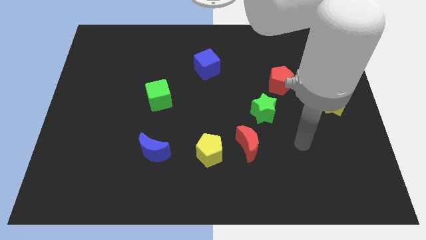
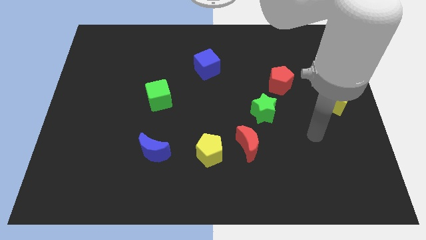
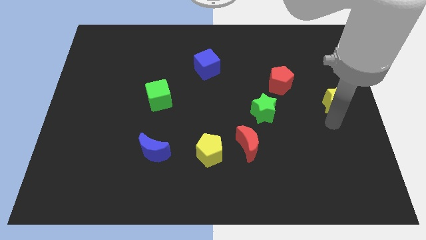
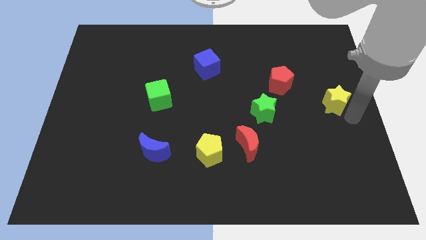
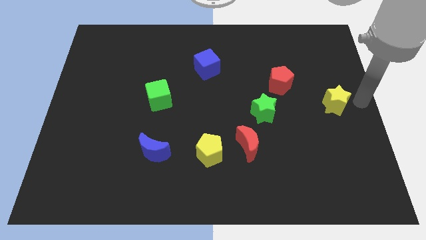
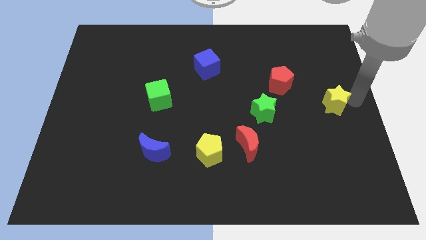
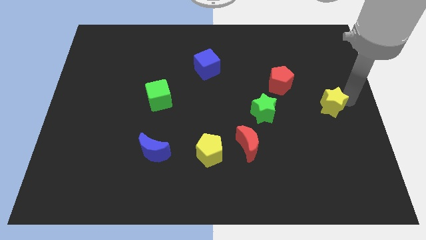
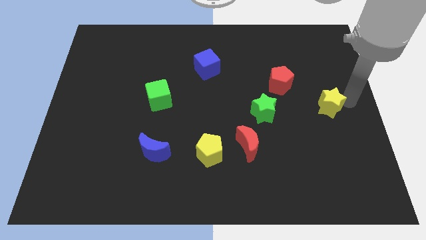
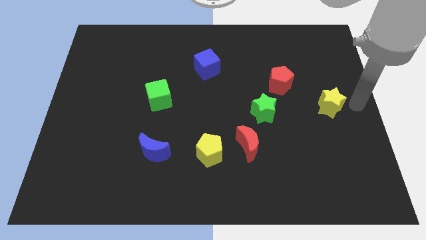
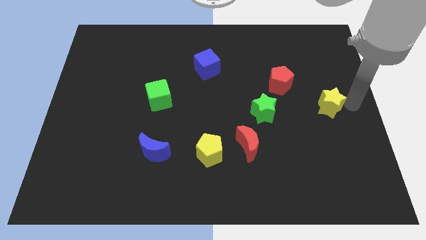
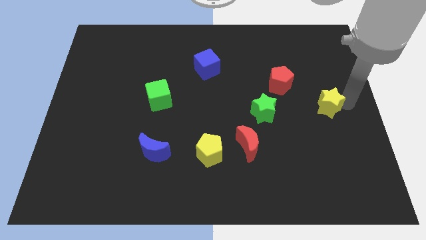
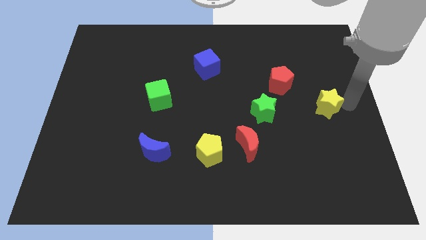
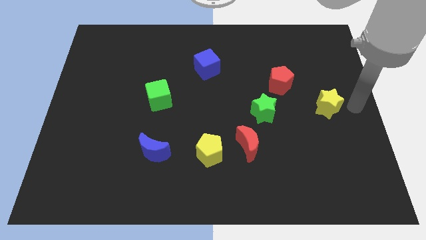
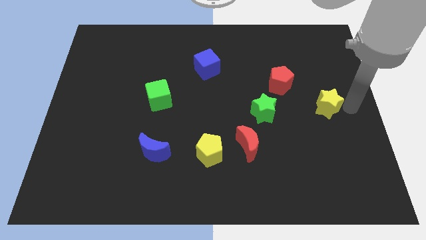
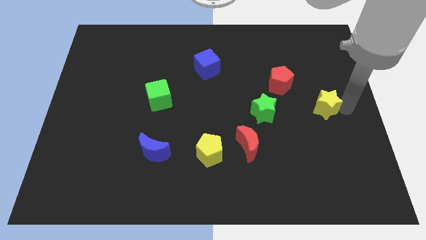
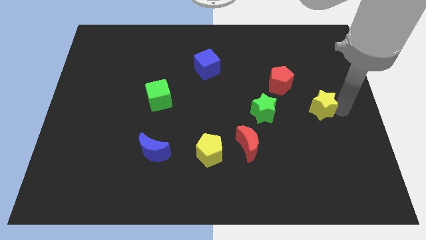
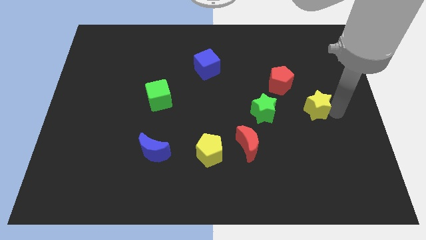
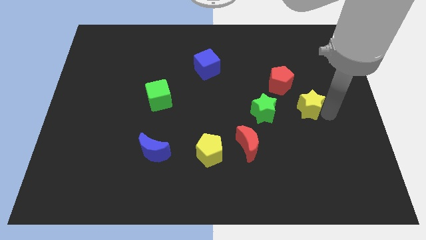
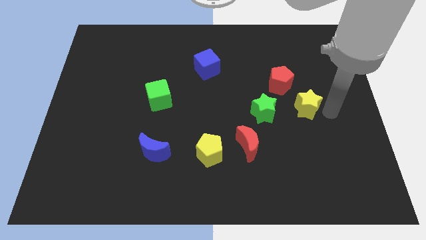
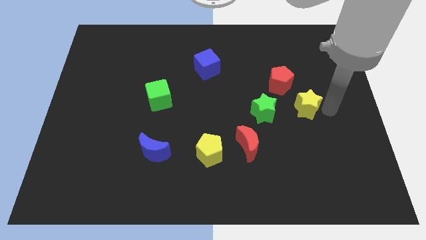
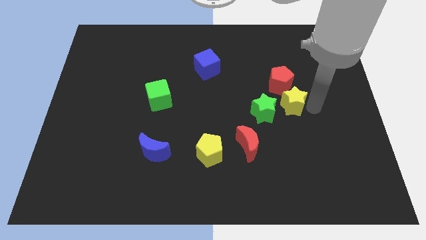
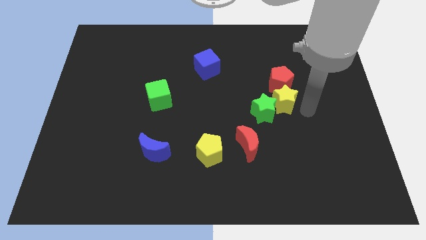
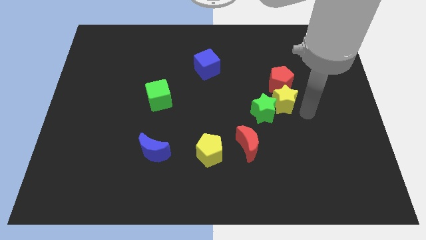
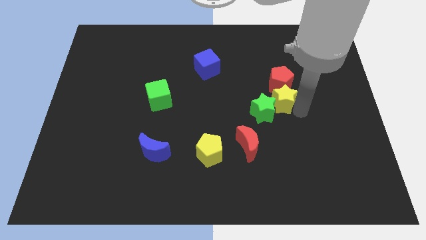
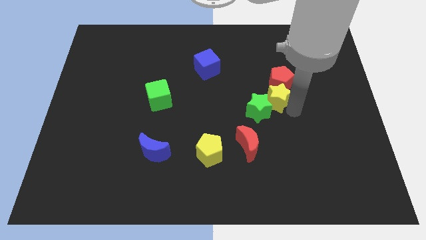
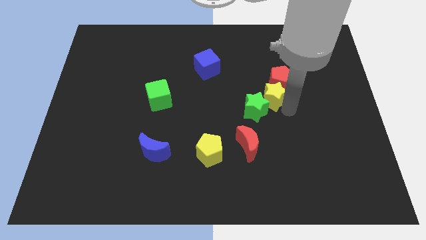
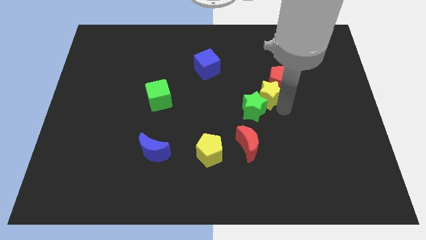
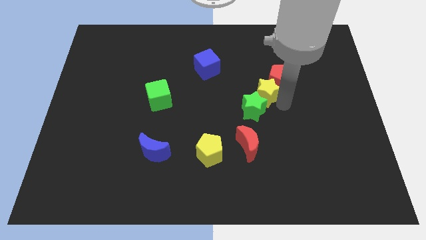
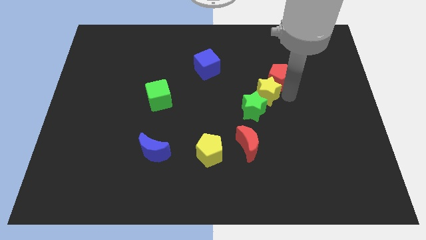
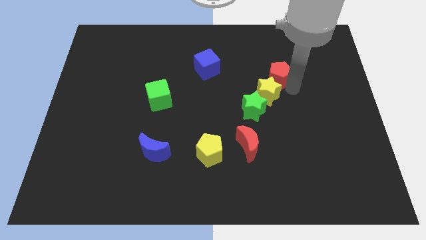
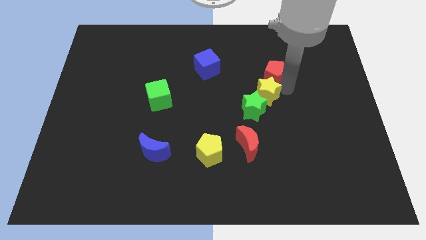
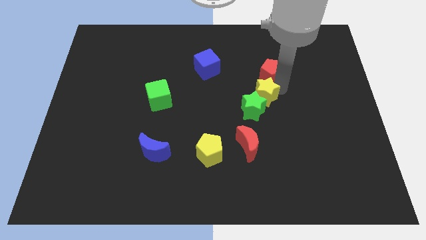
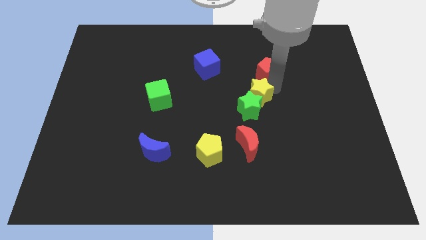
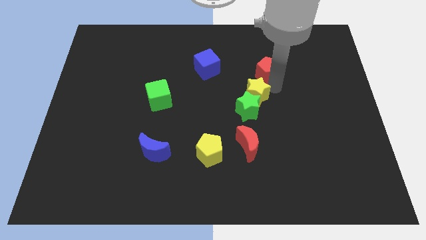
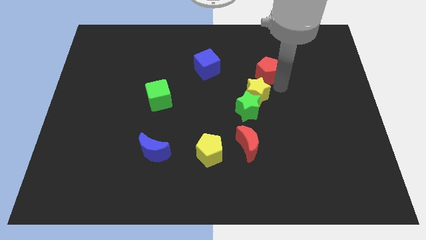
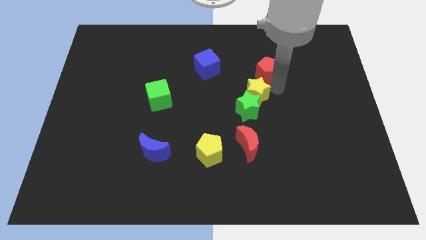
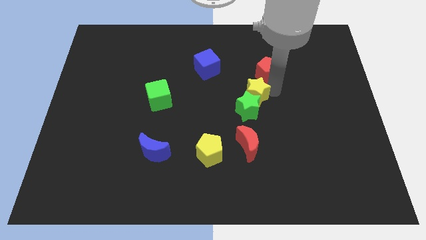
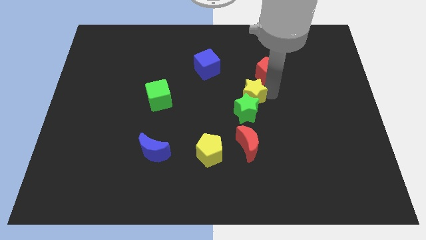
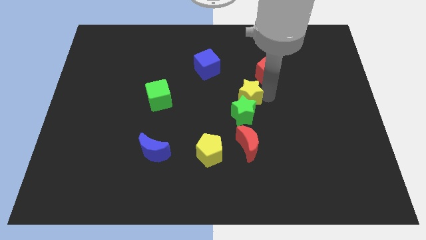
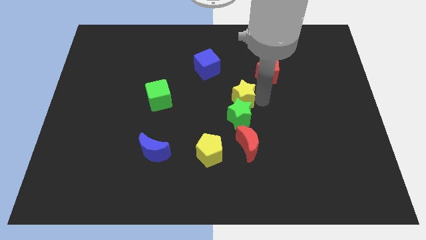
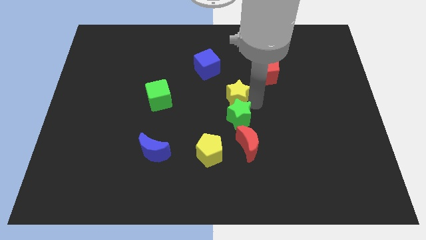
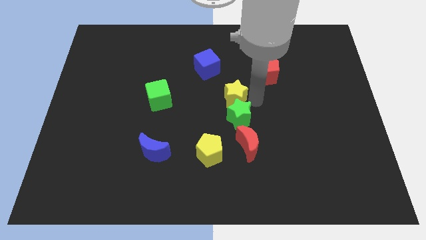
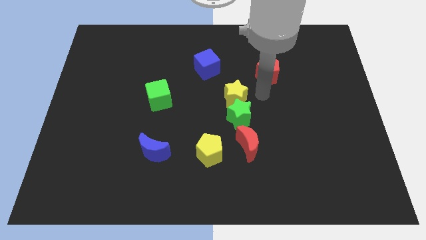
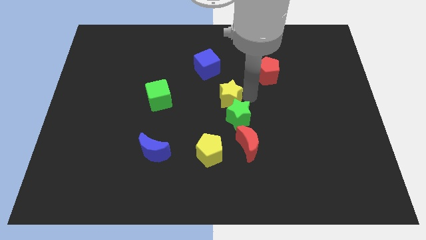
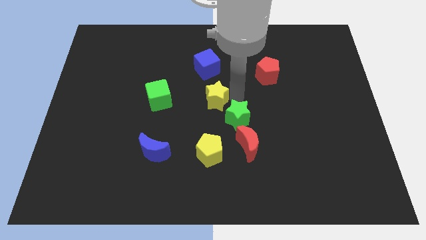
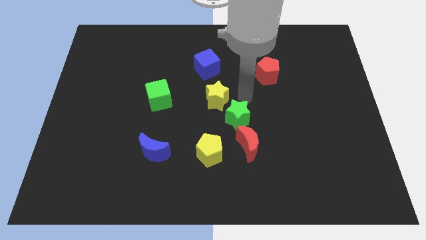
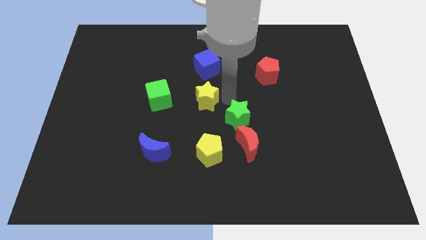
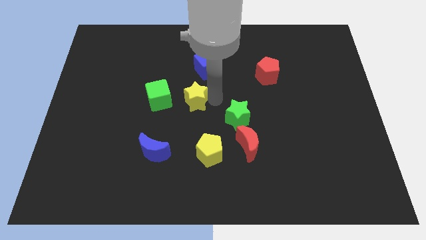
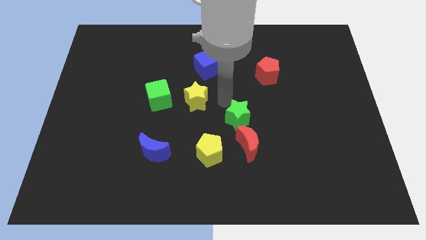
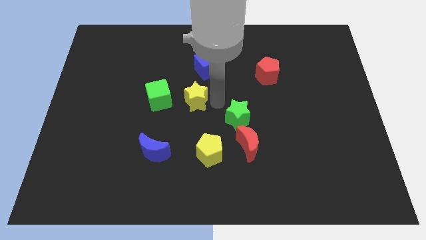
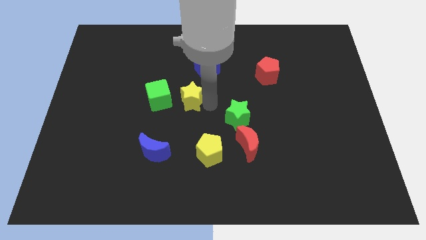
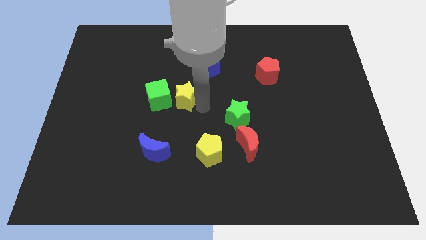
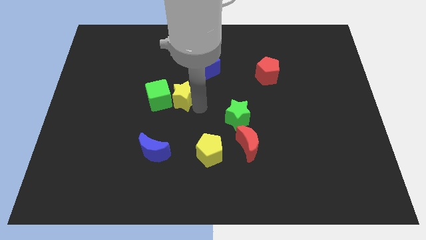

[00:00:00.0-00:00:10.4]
push the yellow star to the green cube

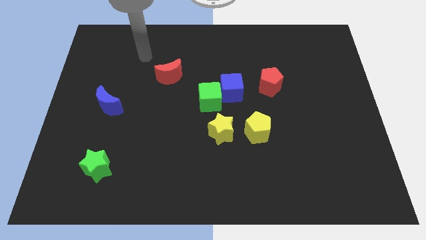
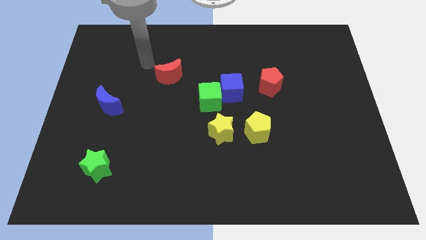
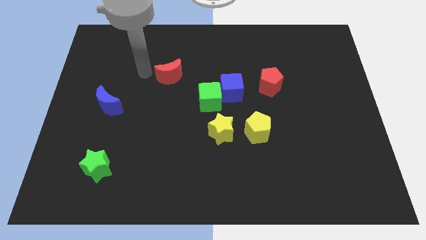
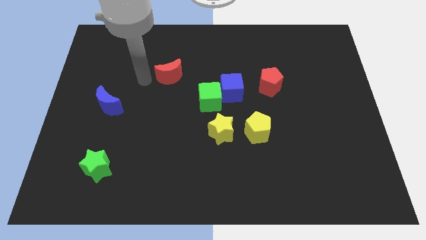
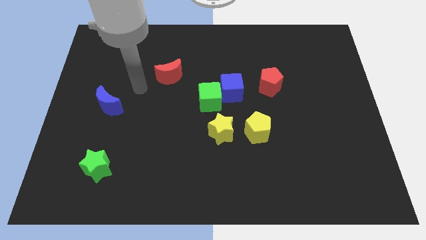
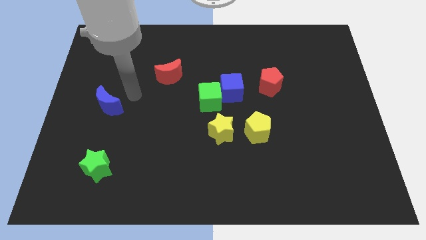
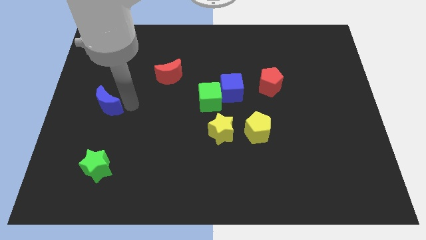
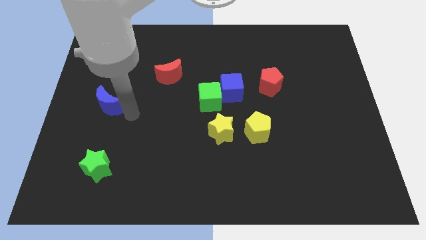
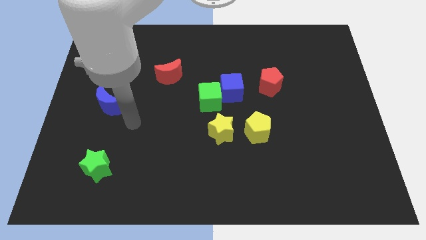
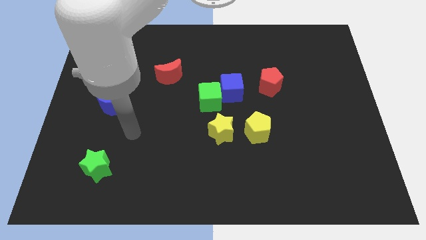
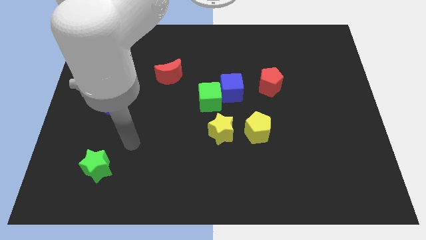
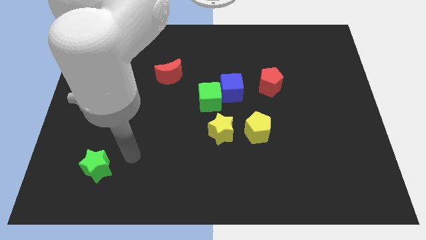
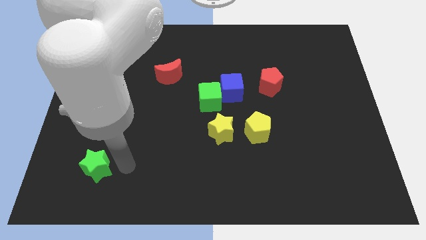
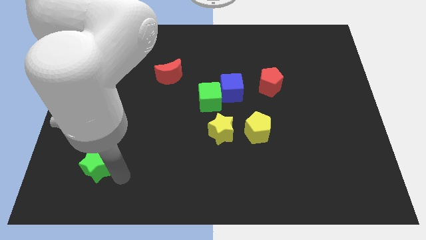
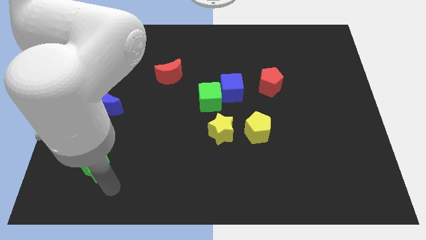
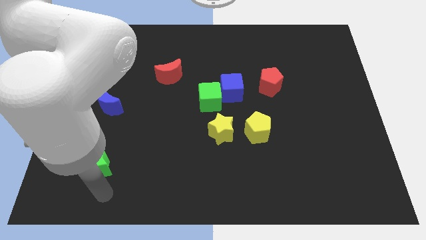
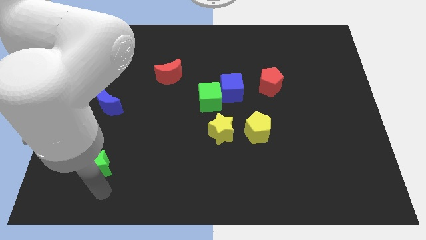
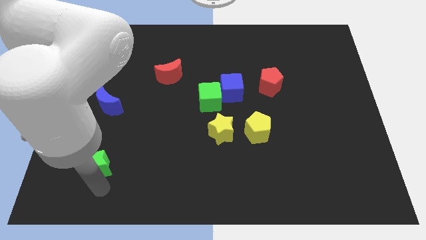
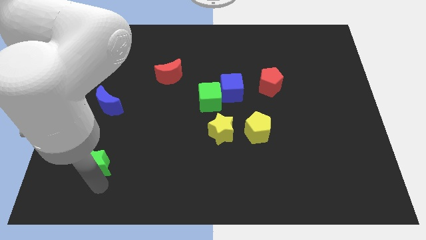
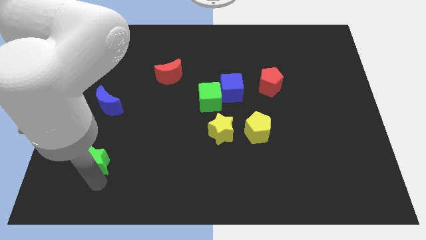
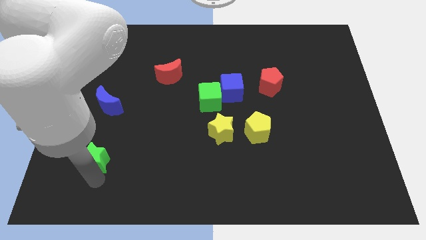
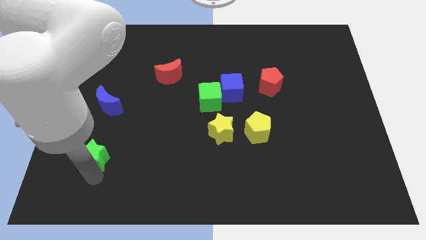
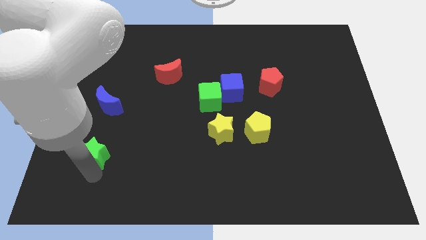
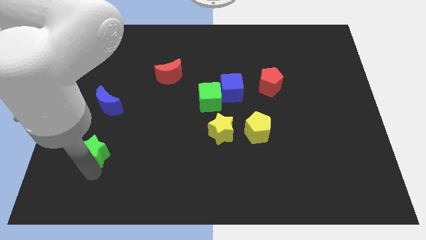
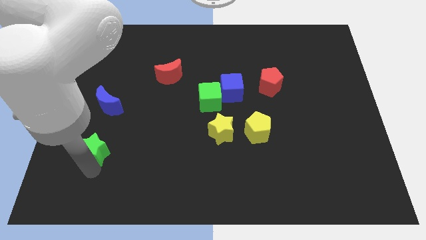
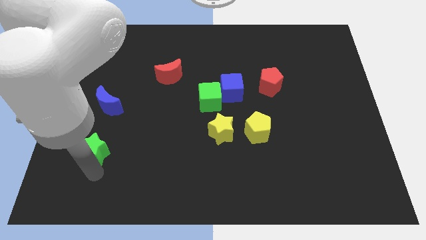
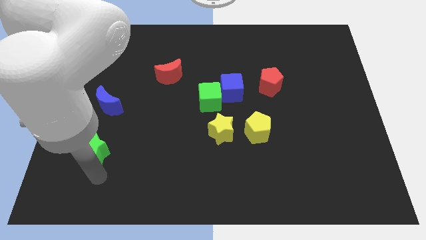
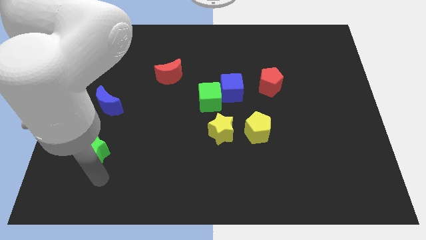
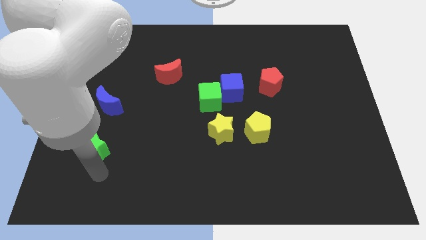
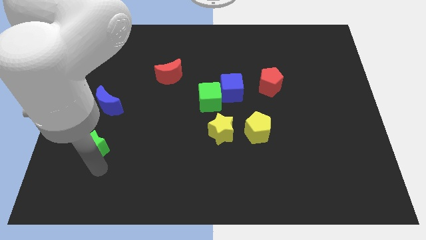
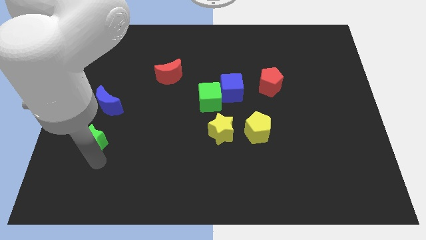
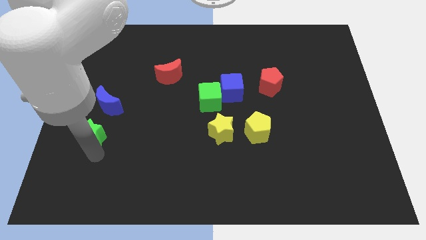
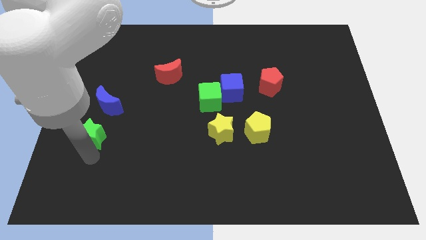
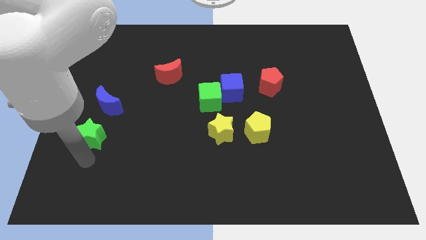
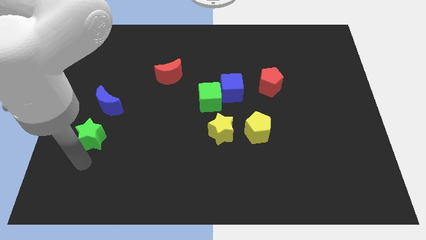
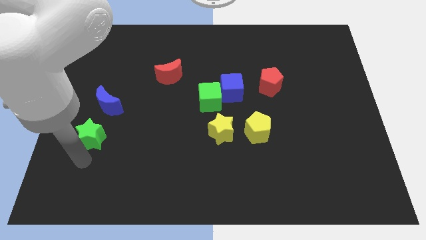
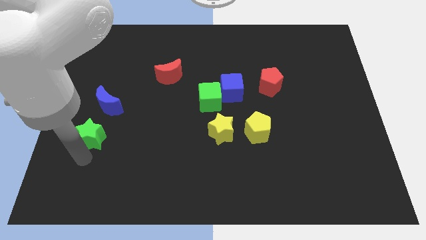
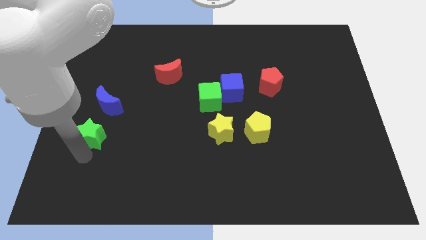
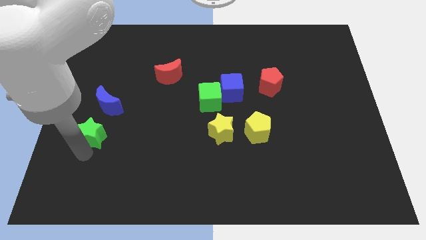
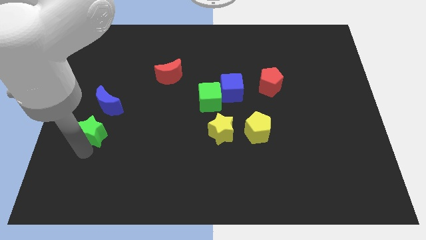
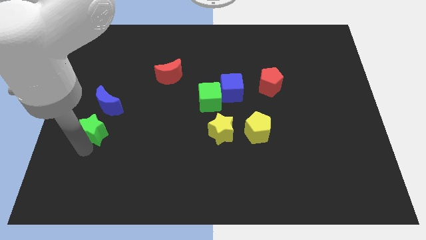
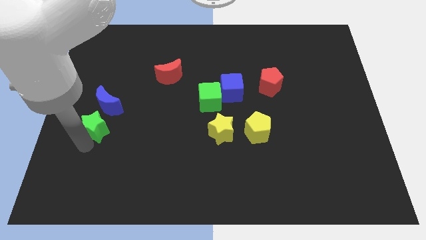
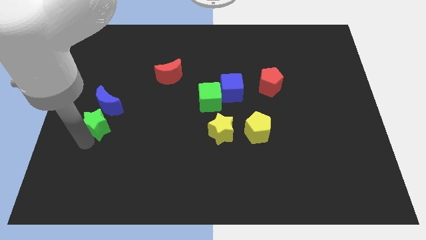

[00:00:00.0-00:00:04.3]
slide the green star close to the blue moon
